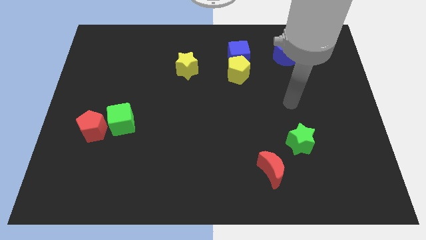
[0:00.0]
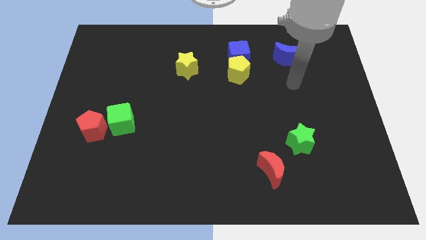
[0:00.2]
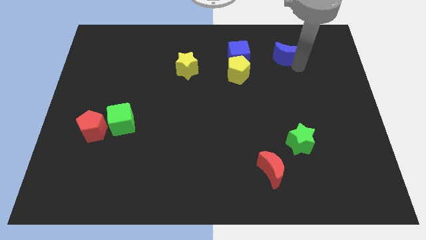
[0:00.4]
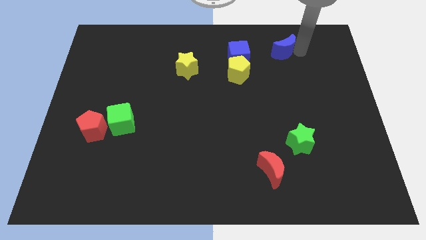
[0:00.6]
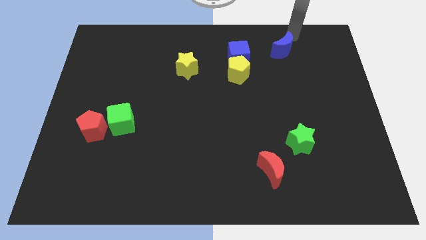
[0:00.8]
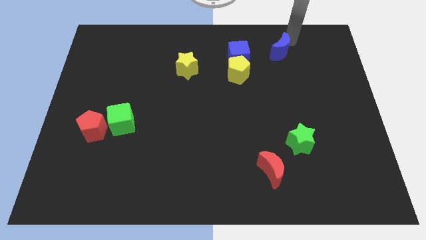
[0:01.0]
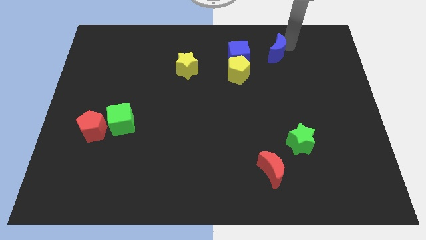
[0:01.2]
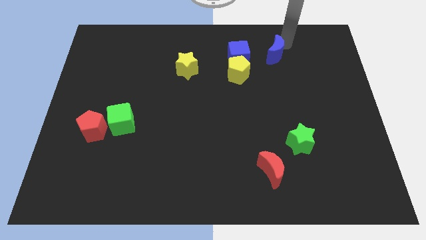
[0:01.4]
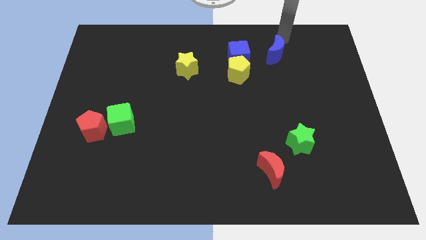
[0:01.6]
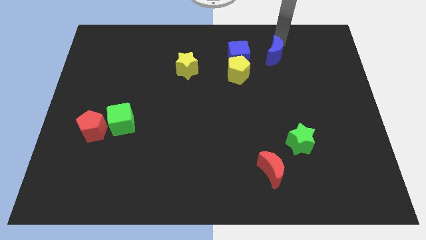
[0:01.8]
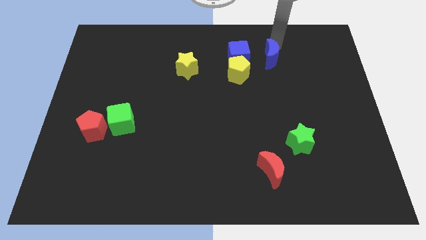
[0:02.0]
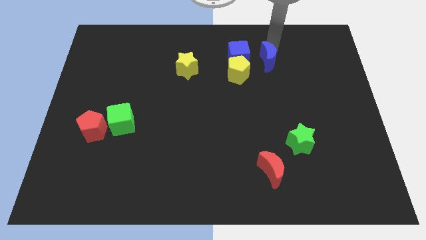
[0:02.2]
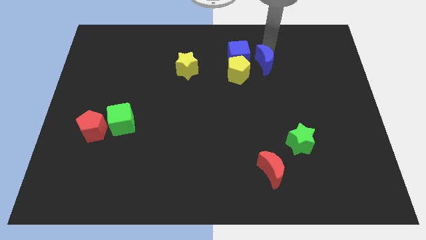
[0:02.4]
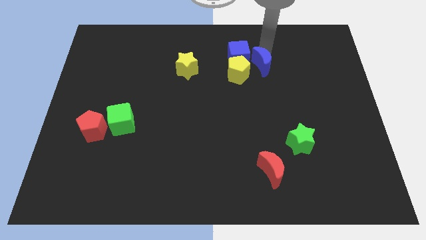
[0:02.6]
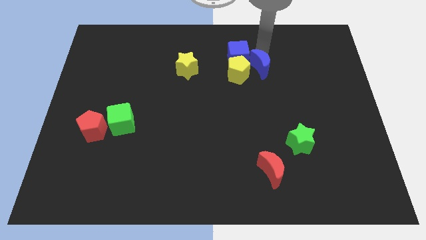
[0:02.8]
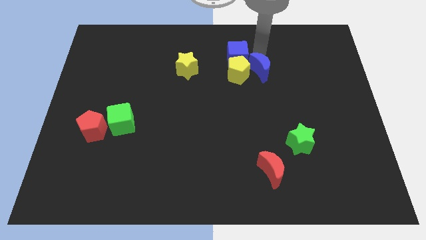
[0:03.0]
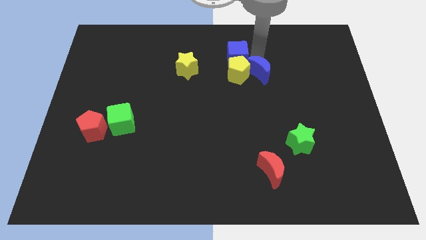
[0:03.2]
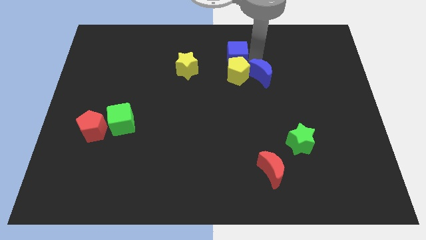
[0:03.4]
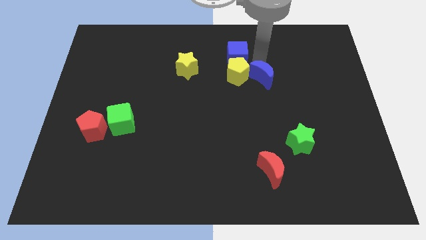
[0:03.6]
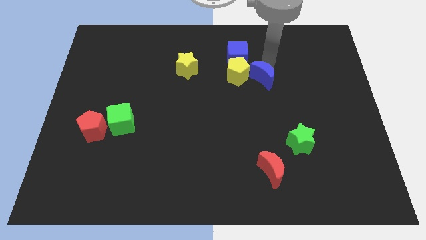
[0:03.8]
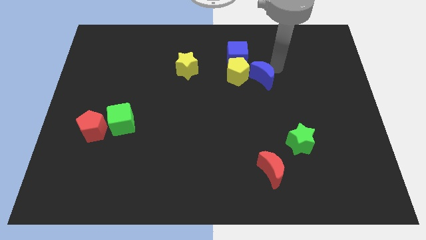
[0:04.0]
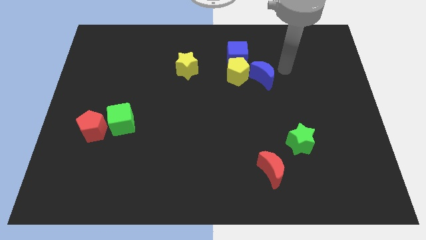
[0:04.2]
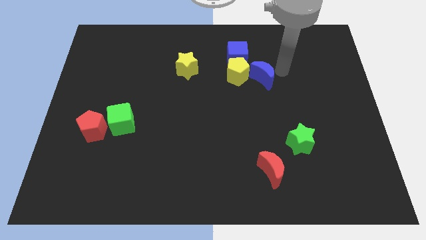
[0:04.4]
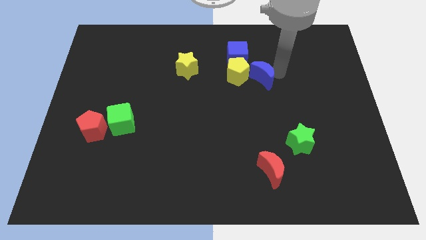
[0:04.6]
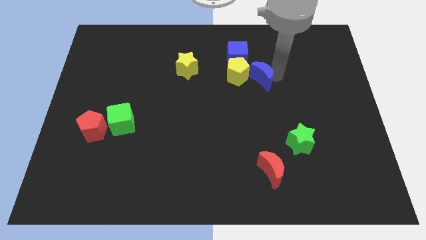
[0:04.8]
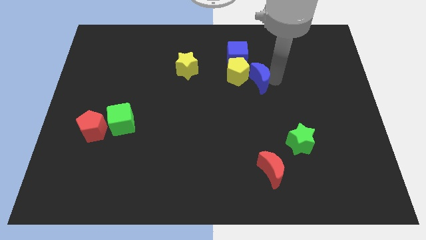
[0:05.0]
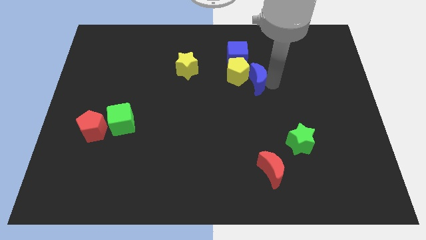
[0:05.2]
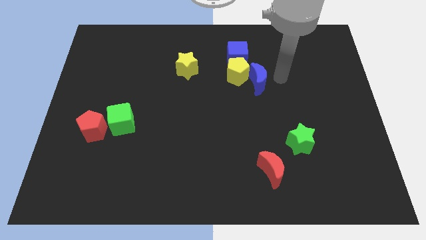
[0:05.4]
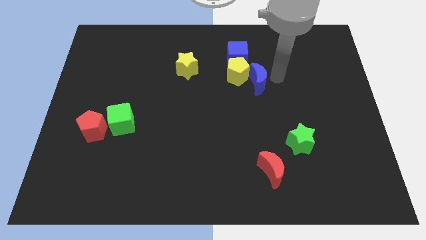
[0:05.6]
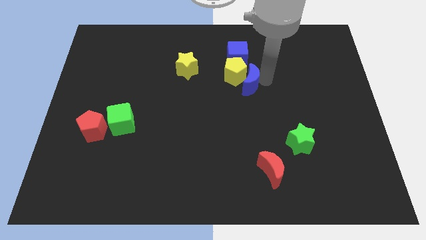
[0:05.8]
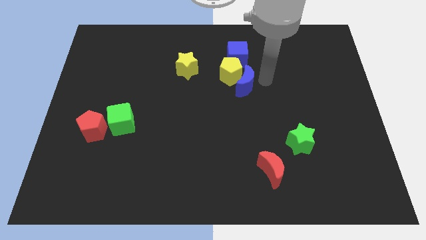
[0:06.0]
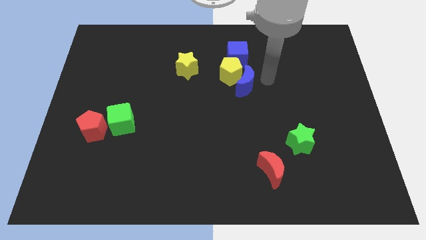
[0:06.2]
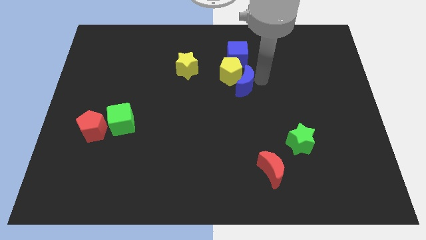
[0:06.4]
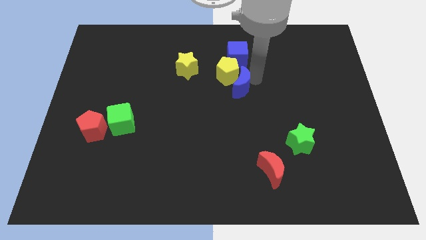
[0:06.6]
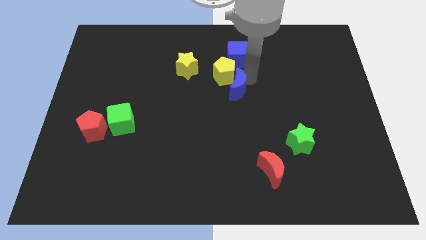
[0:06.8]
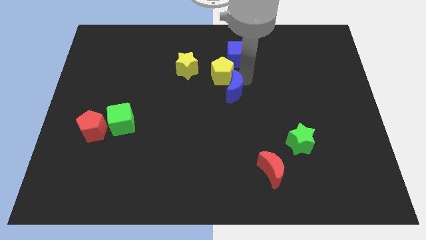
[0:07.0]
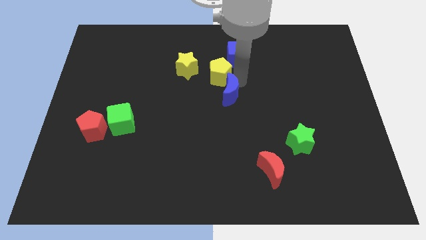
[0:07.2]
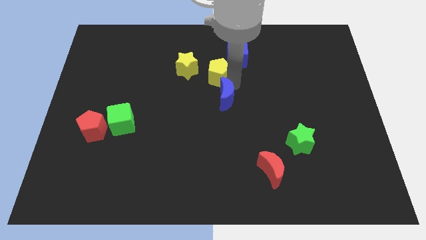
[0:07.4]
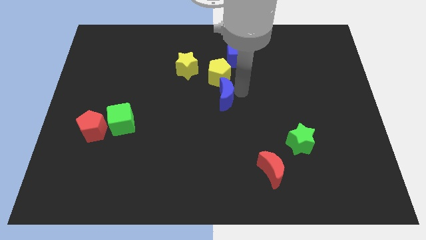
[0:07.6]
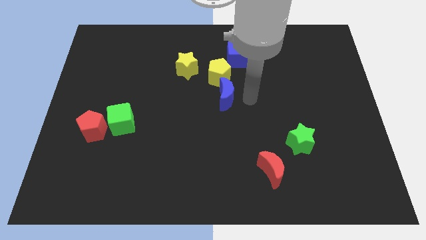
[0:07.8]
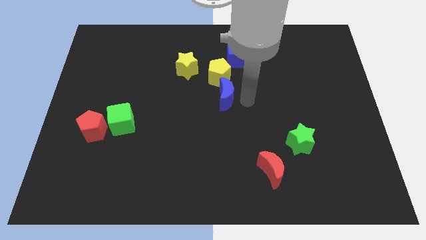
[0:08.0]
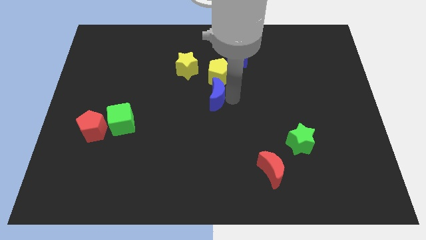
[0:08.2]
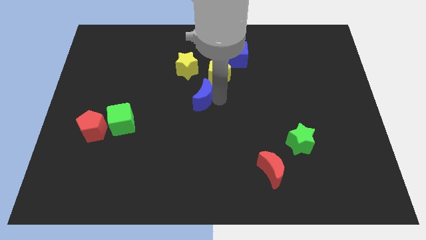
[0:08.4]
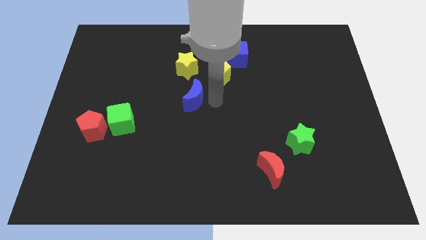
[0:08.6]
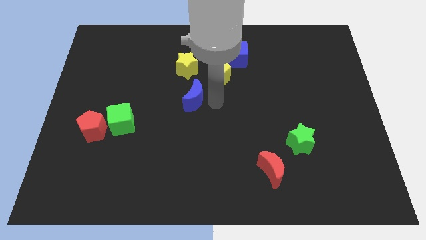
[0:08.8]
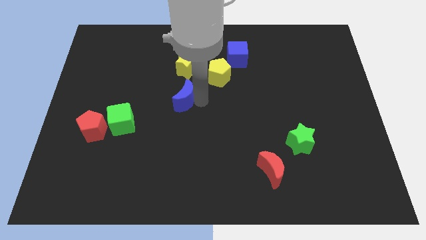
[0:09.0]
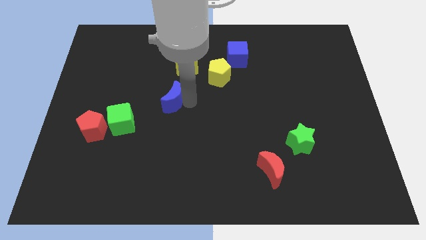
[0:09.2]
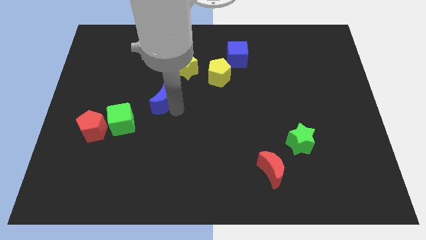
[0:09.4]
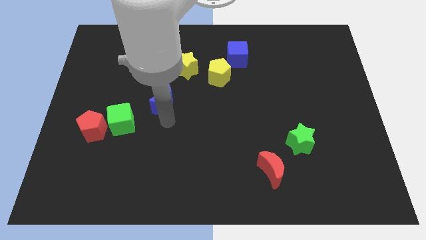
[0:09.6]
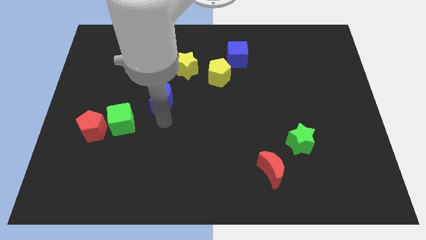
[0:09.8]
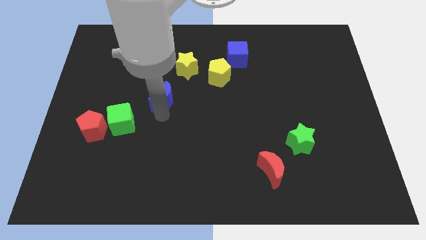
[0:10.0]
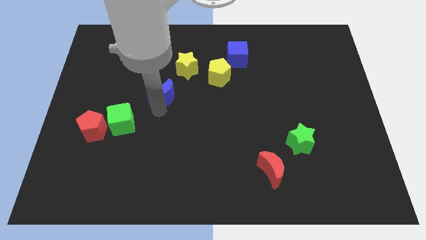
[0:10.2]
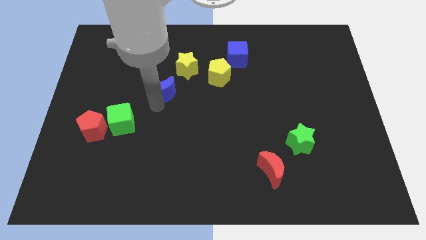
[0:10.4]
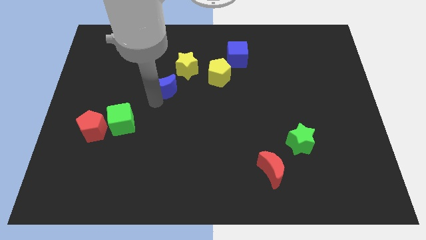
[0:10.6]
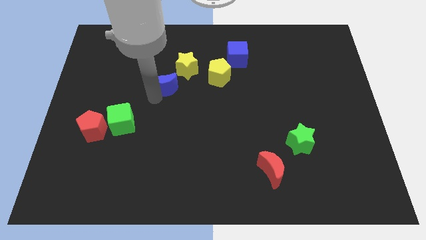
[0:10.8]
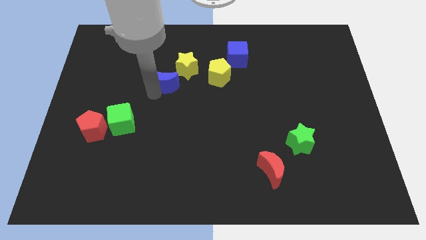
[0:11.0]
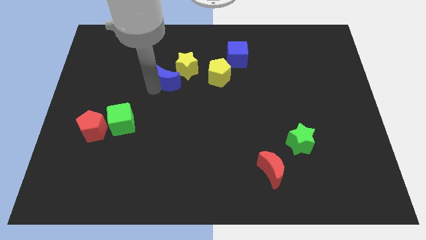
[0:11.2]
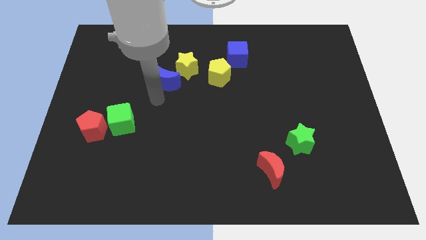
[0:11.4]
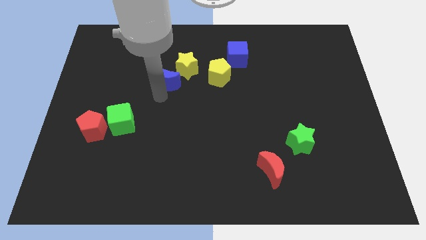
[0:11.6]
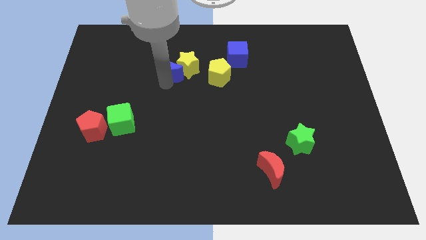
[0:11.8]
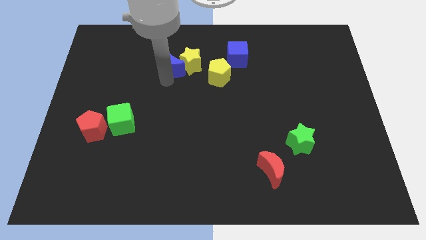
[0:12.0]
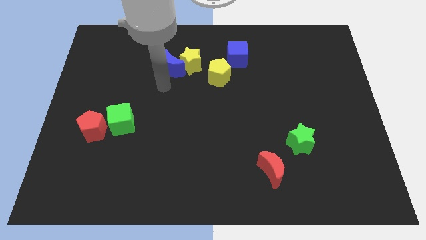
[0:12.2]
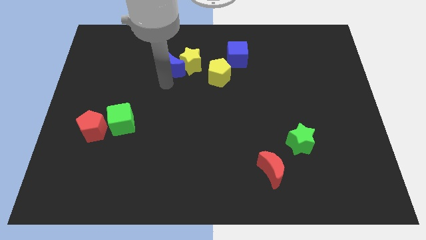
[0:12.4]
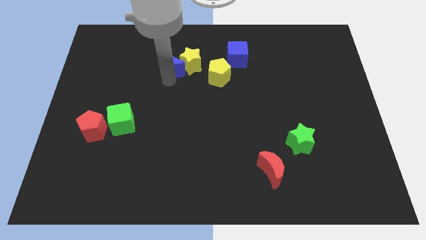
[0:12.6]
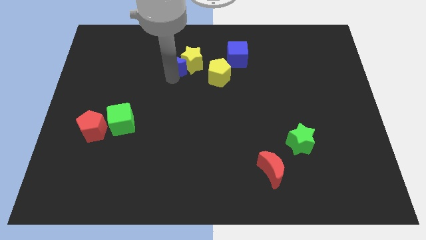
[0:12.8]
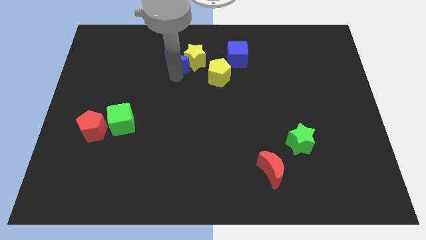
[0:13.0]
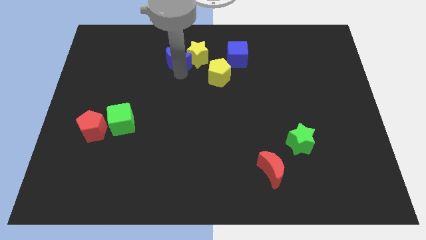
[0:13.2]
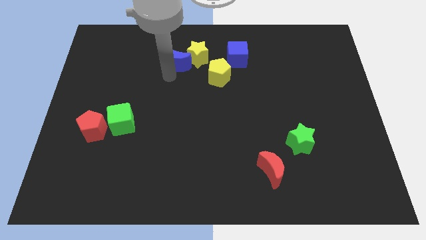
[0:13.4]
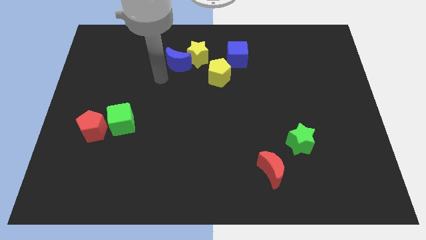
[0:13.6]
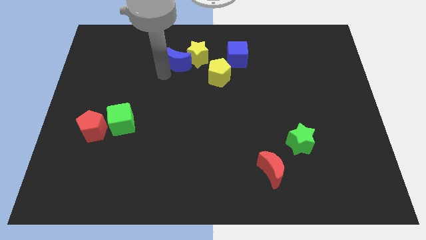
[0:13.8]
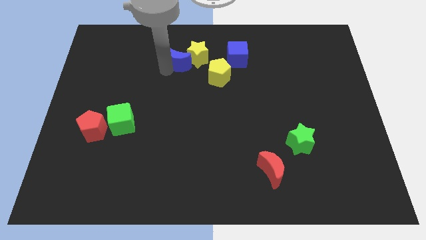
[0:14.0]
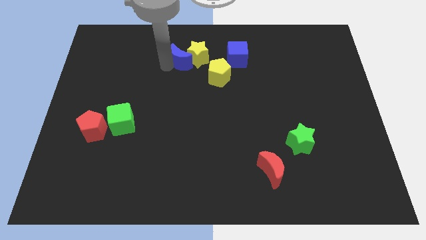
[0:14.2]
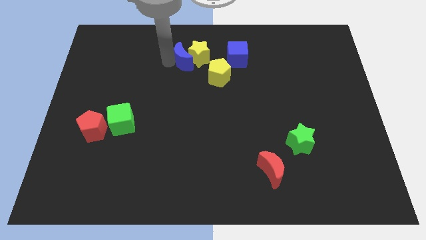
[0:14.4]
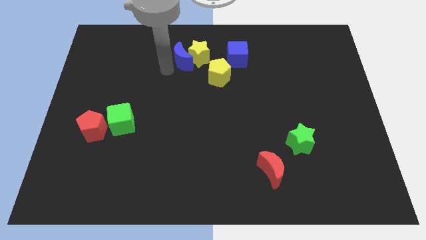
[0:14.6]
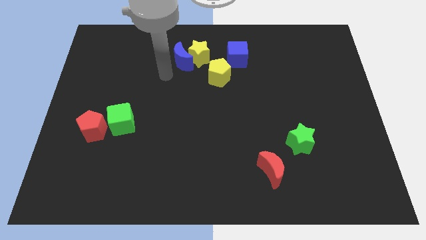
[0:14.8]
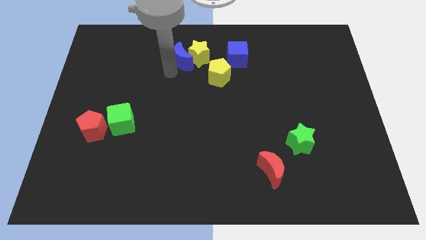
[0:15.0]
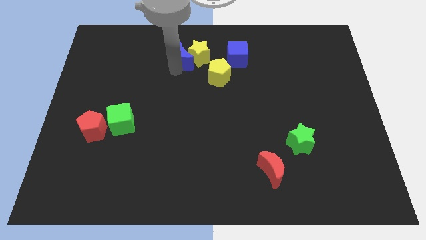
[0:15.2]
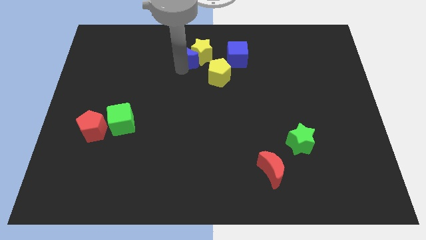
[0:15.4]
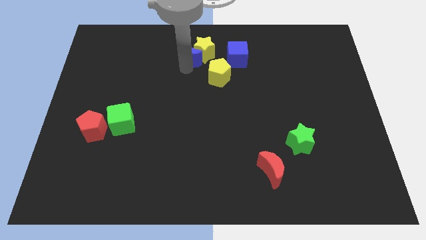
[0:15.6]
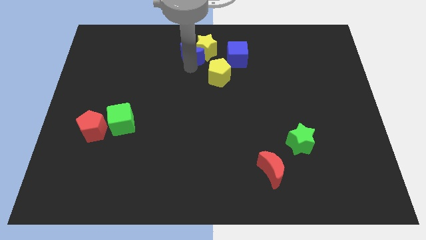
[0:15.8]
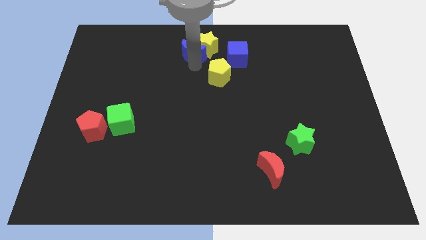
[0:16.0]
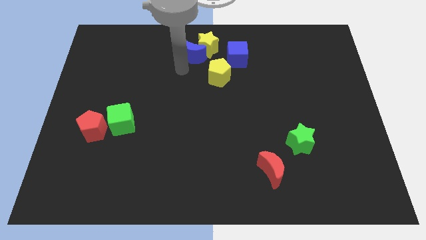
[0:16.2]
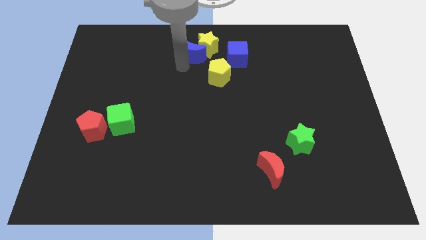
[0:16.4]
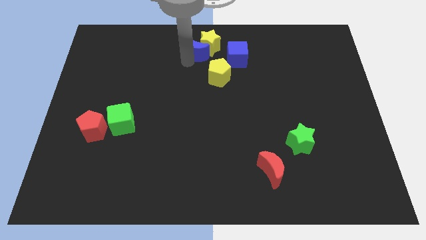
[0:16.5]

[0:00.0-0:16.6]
push the blue moon to the top
